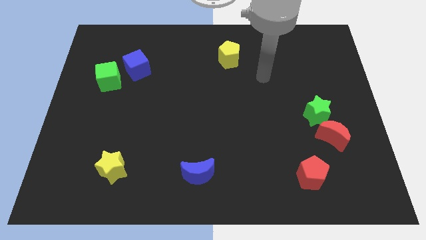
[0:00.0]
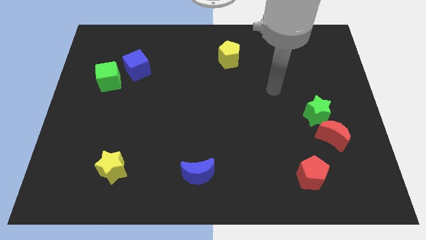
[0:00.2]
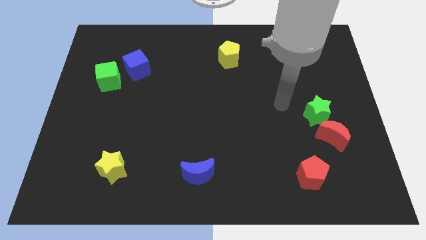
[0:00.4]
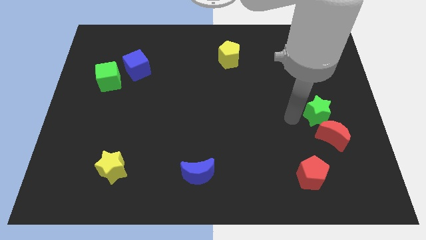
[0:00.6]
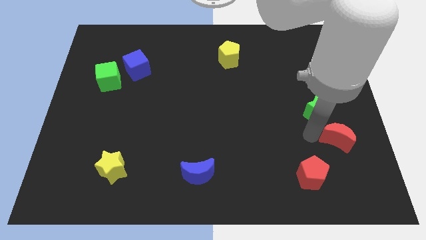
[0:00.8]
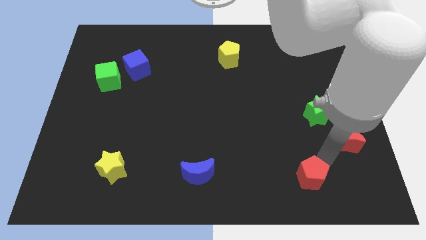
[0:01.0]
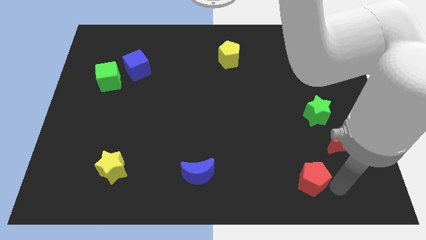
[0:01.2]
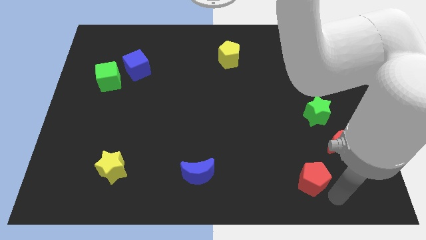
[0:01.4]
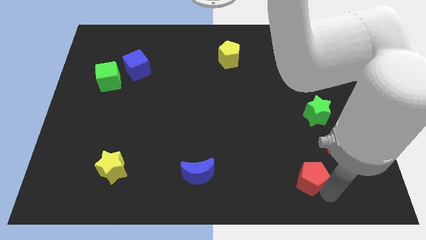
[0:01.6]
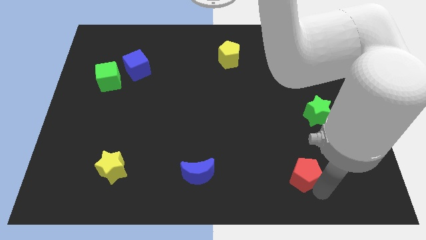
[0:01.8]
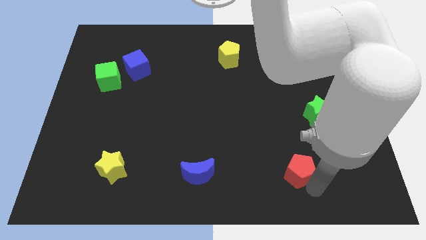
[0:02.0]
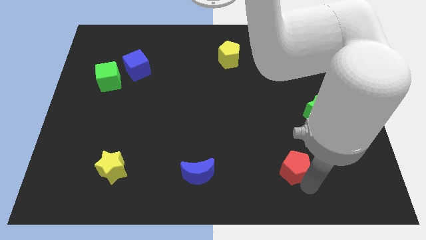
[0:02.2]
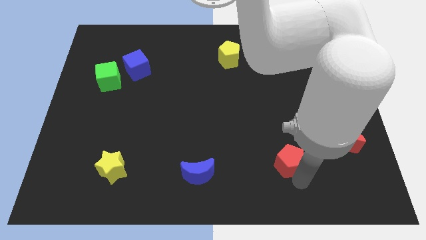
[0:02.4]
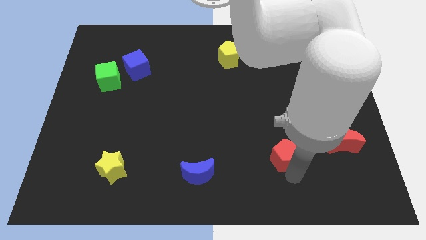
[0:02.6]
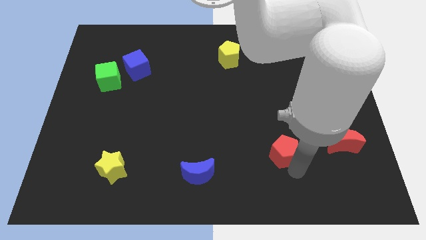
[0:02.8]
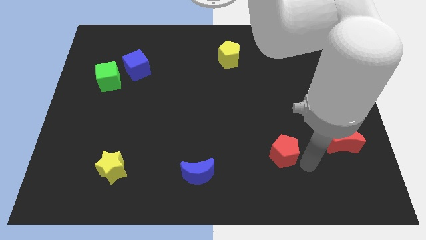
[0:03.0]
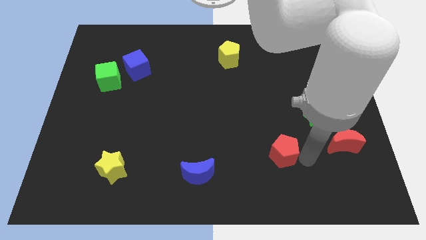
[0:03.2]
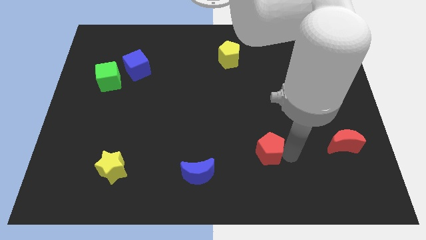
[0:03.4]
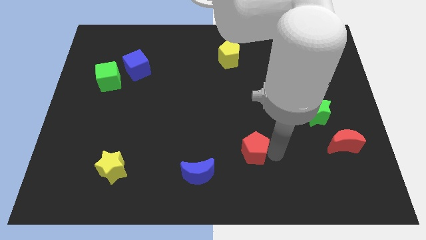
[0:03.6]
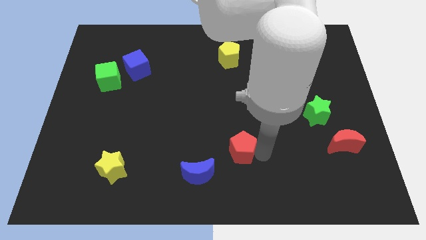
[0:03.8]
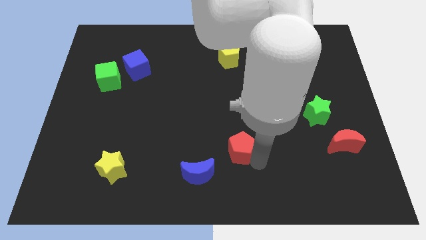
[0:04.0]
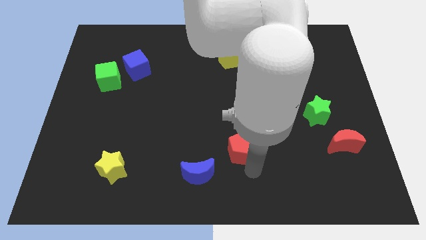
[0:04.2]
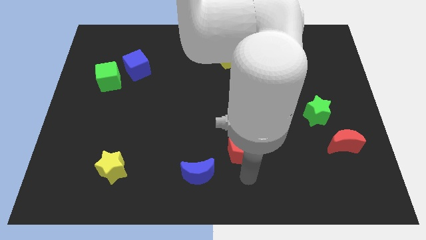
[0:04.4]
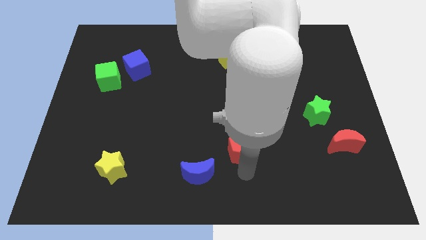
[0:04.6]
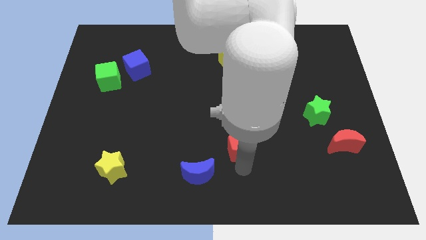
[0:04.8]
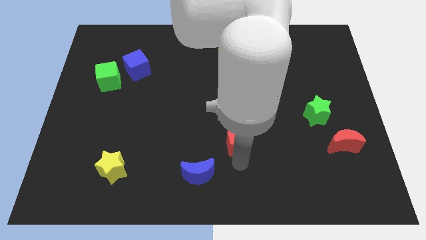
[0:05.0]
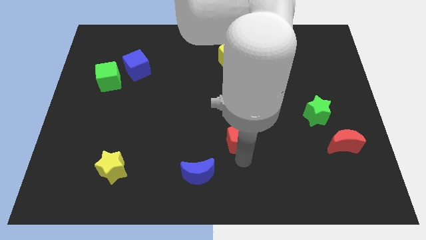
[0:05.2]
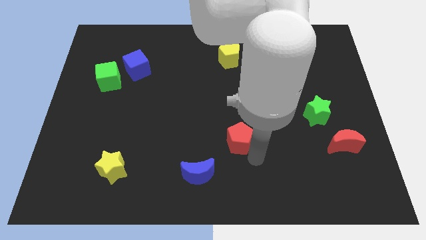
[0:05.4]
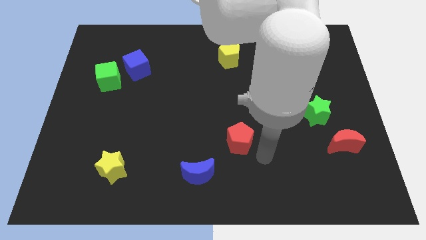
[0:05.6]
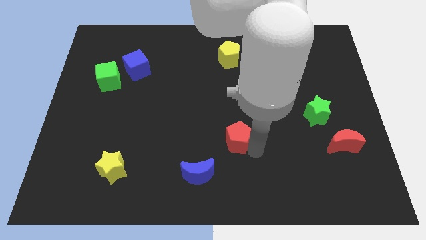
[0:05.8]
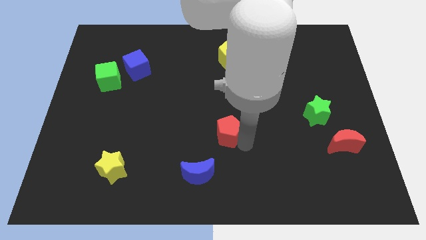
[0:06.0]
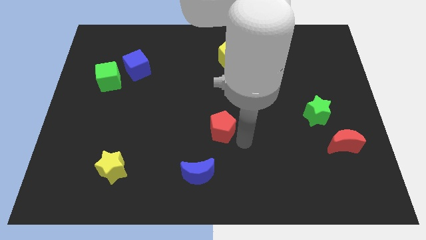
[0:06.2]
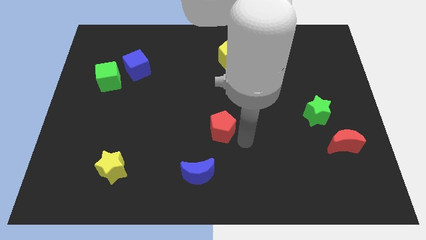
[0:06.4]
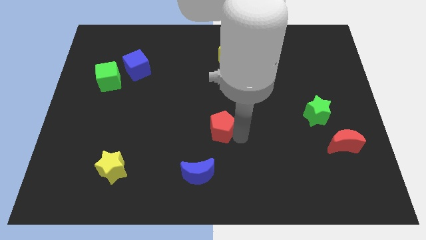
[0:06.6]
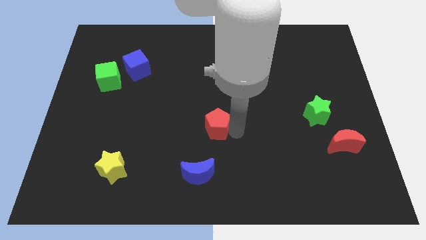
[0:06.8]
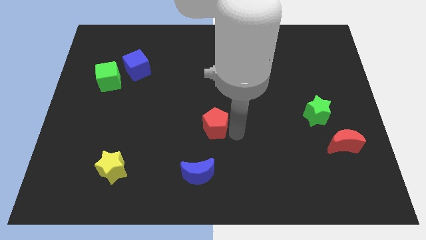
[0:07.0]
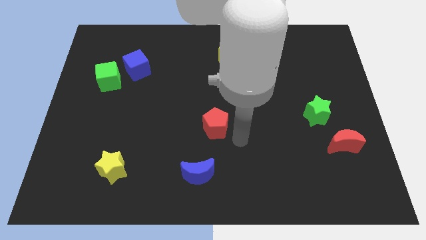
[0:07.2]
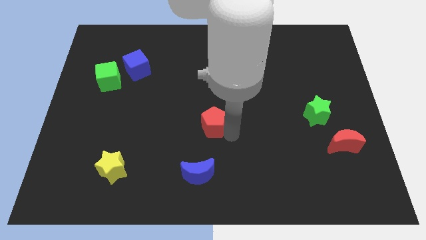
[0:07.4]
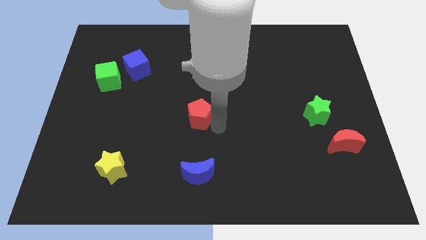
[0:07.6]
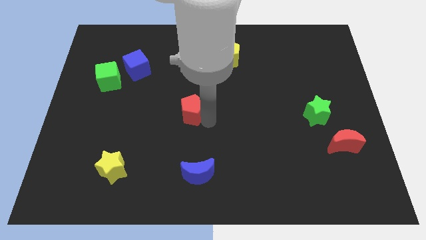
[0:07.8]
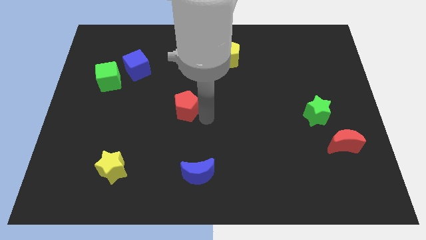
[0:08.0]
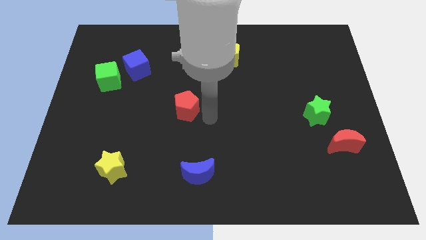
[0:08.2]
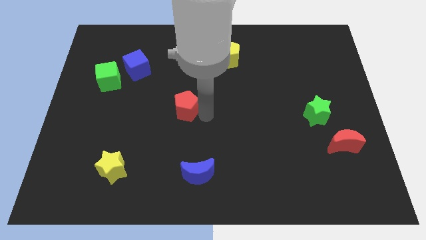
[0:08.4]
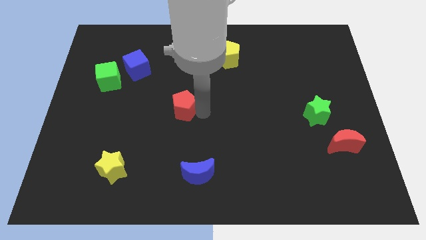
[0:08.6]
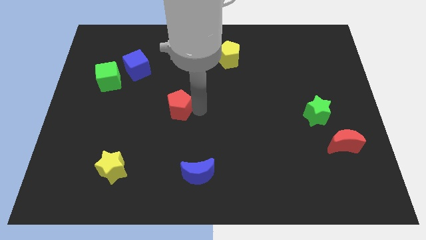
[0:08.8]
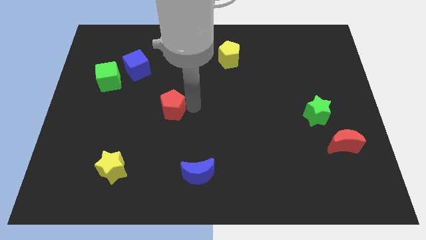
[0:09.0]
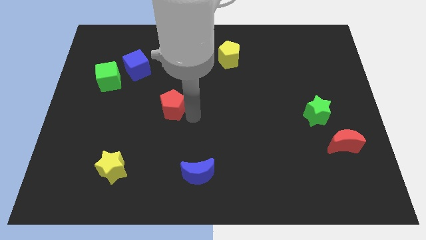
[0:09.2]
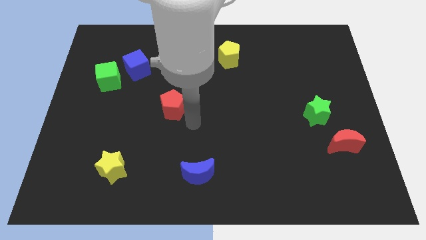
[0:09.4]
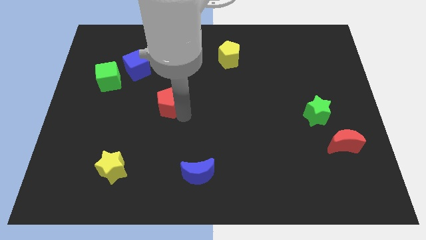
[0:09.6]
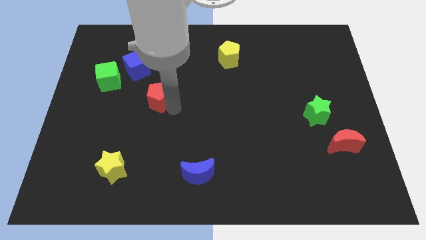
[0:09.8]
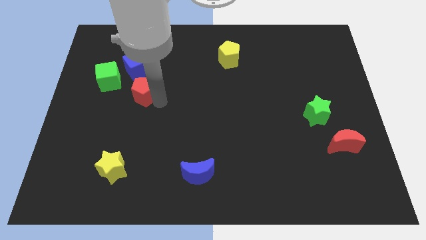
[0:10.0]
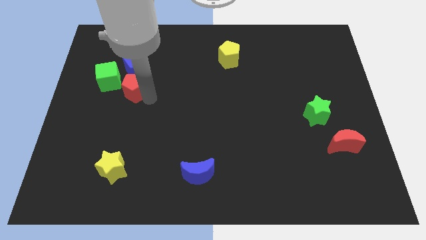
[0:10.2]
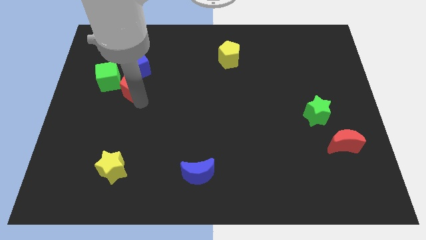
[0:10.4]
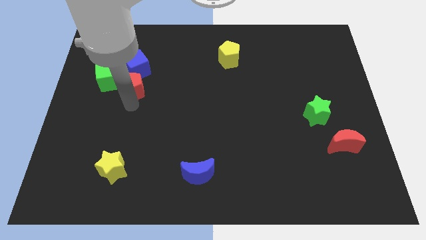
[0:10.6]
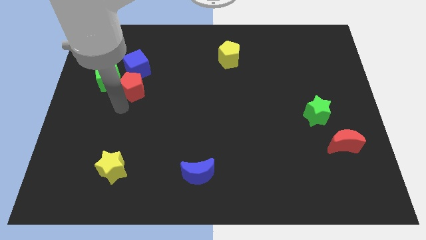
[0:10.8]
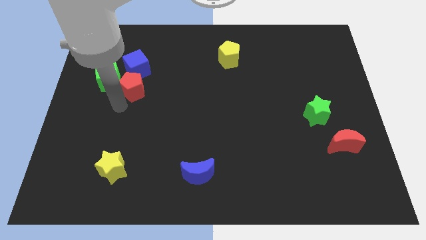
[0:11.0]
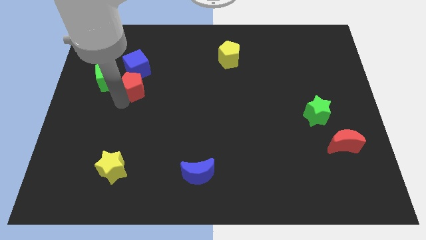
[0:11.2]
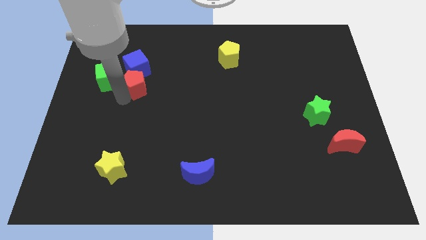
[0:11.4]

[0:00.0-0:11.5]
put the red pentagon towards the blue cube
